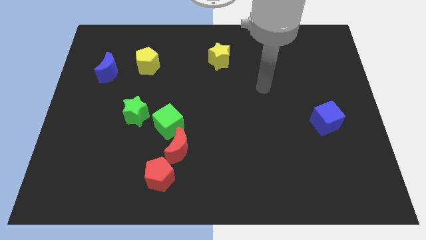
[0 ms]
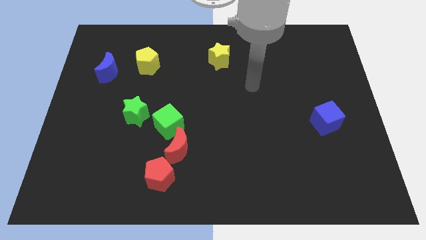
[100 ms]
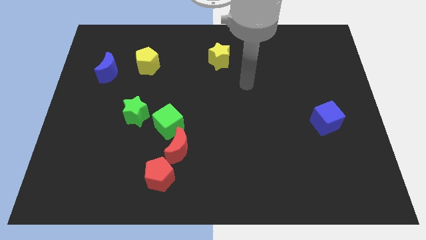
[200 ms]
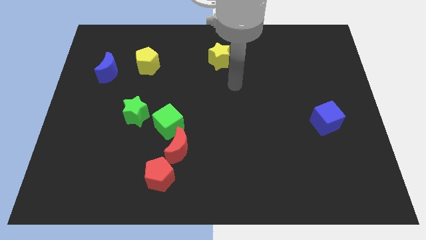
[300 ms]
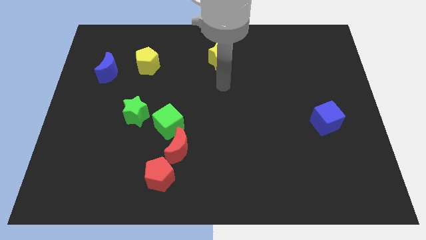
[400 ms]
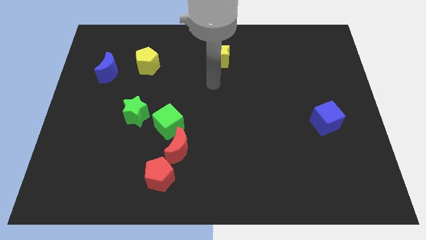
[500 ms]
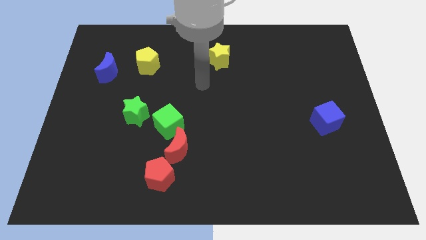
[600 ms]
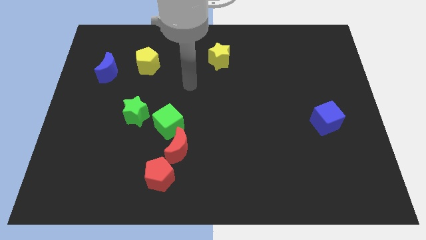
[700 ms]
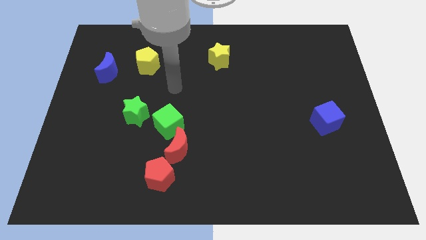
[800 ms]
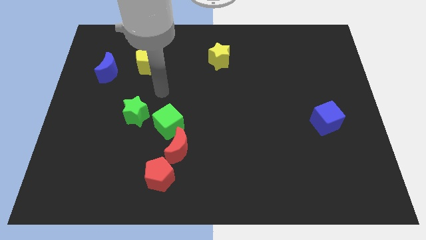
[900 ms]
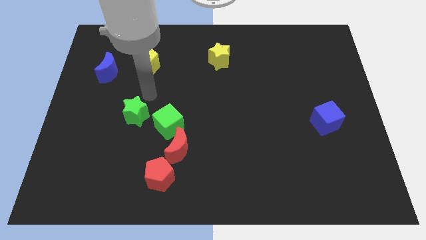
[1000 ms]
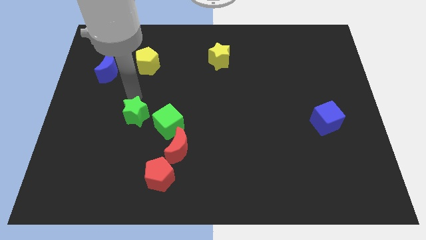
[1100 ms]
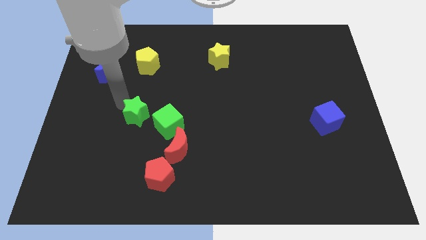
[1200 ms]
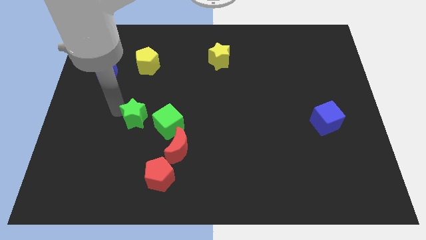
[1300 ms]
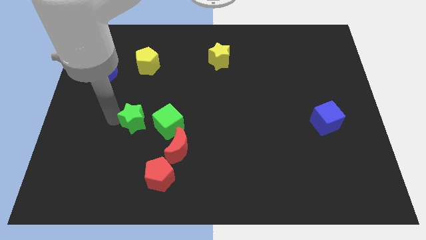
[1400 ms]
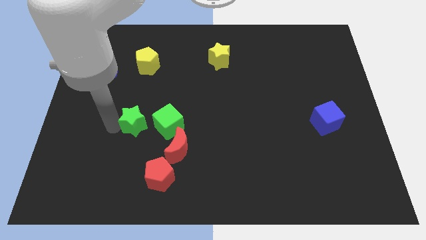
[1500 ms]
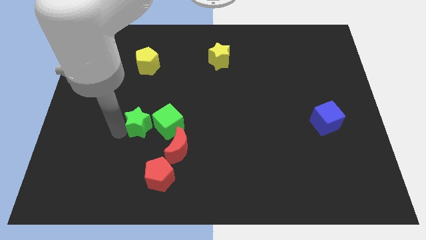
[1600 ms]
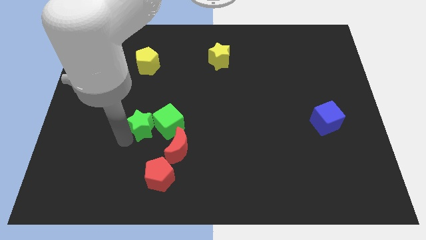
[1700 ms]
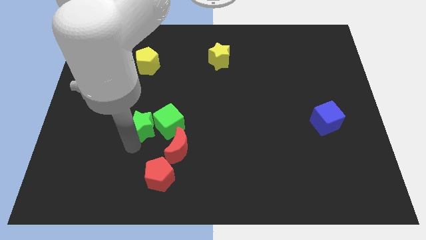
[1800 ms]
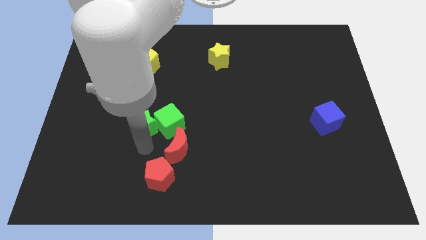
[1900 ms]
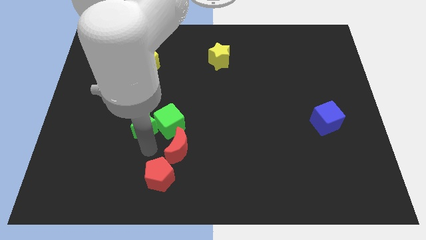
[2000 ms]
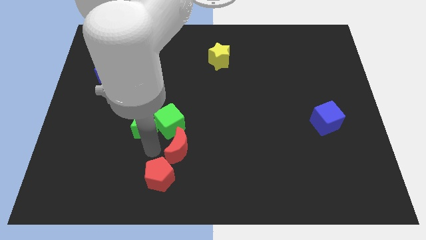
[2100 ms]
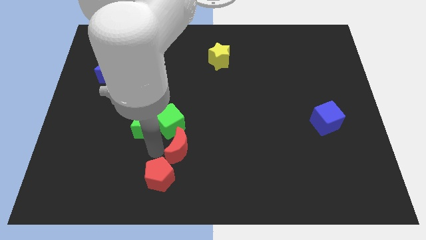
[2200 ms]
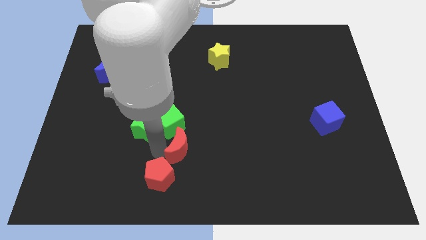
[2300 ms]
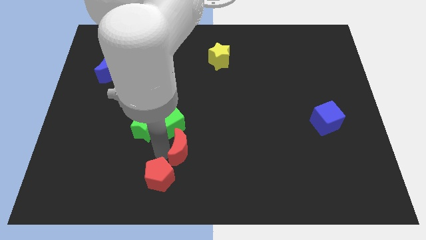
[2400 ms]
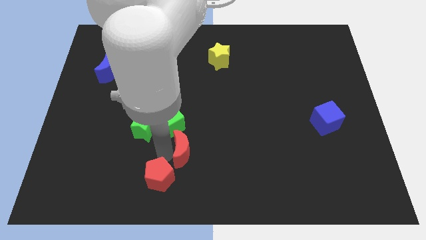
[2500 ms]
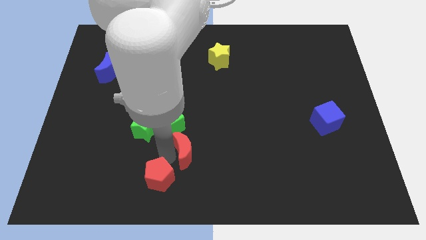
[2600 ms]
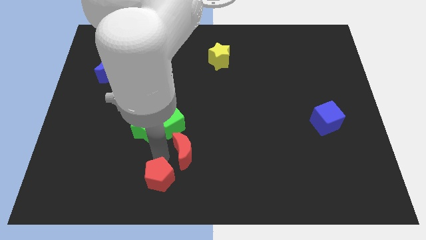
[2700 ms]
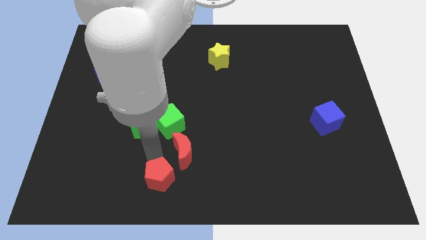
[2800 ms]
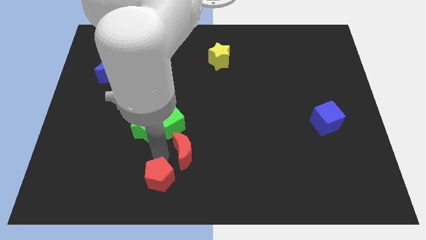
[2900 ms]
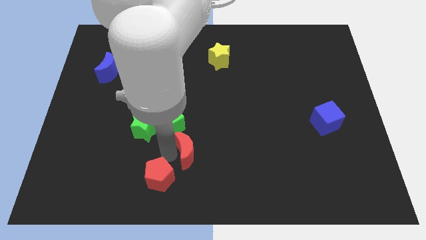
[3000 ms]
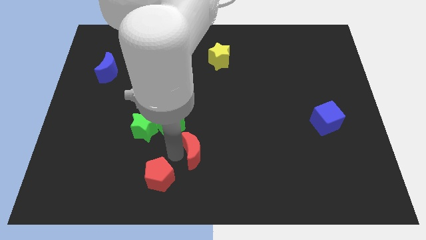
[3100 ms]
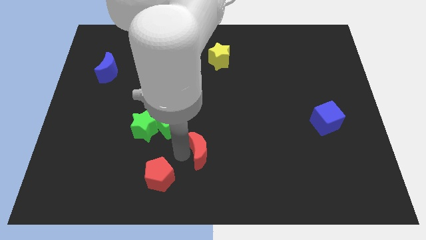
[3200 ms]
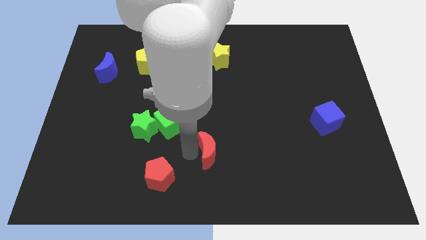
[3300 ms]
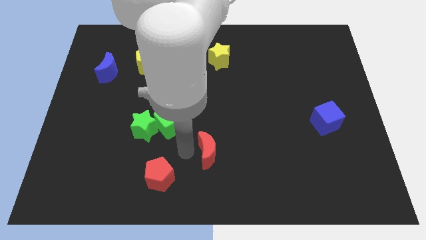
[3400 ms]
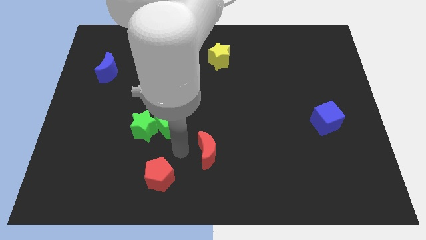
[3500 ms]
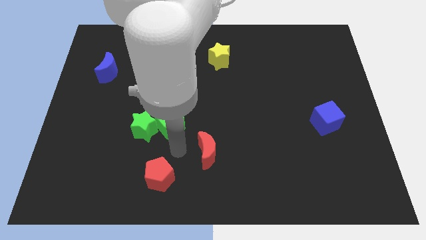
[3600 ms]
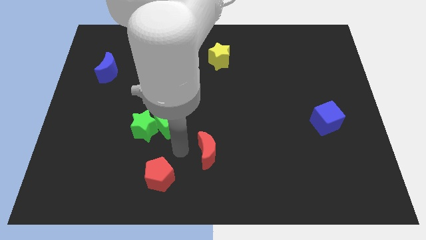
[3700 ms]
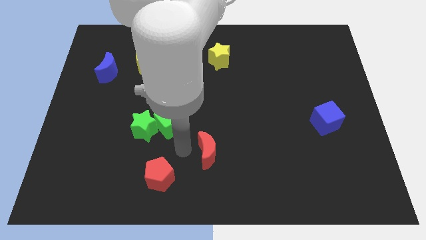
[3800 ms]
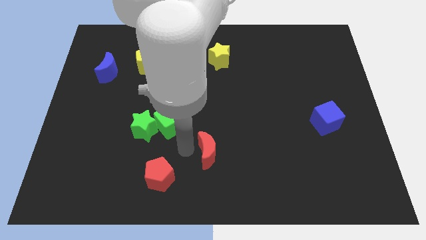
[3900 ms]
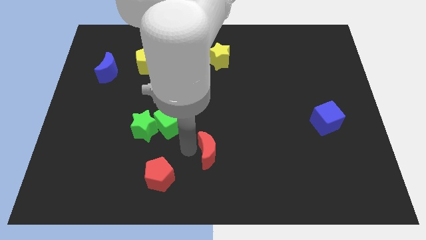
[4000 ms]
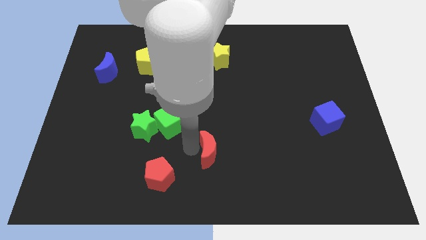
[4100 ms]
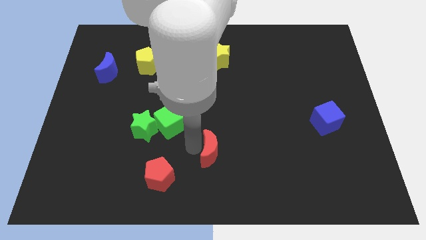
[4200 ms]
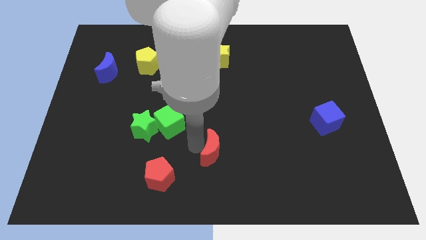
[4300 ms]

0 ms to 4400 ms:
pull the red moon apart from the green cube and red pentagon

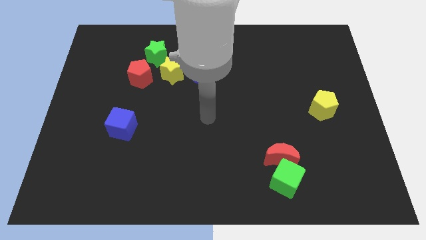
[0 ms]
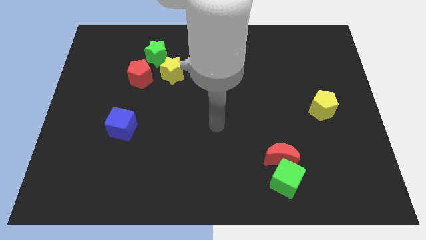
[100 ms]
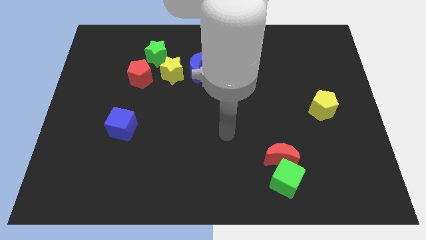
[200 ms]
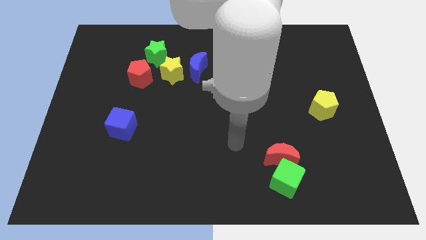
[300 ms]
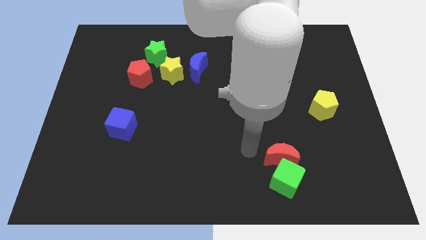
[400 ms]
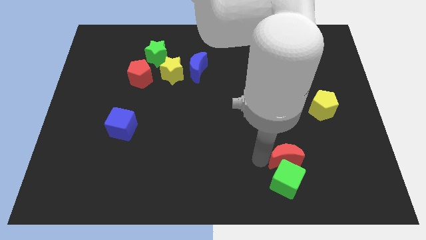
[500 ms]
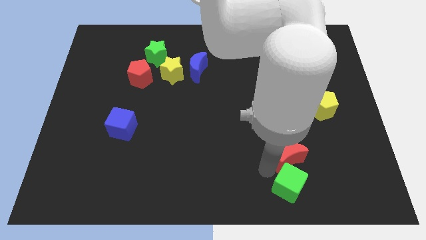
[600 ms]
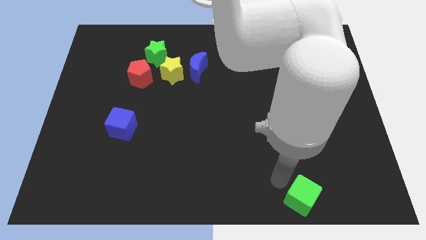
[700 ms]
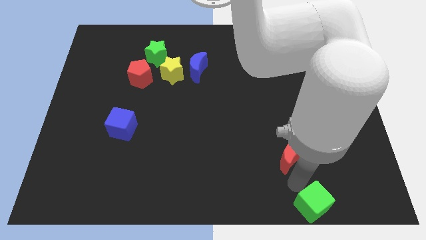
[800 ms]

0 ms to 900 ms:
separate the red moon from the green cube

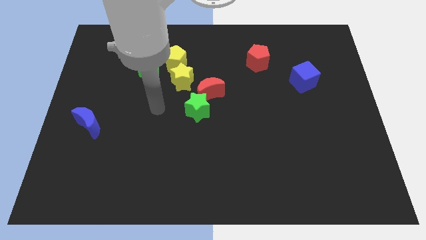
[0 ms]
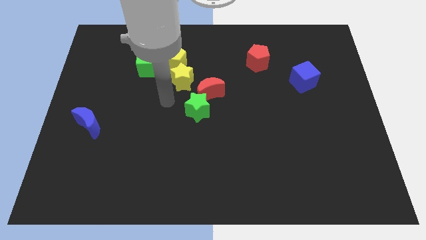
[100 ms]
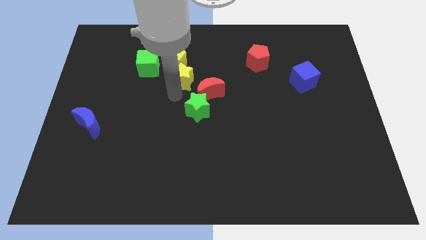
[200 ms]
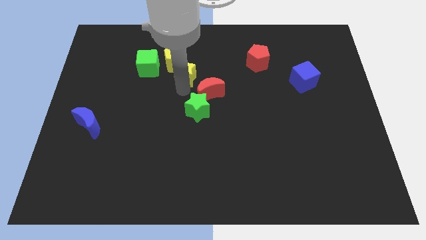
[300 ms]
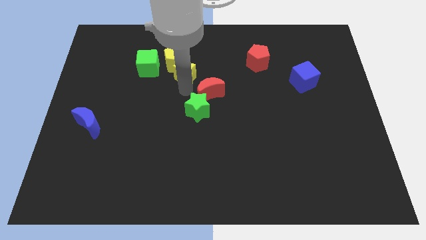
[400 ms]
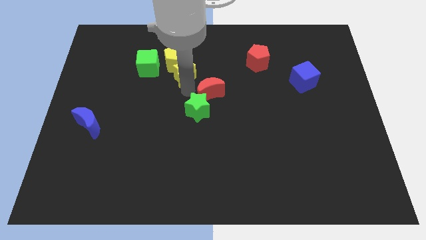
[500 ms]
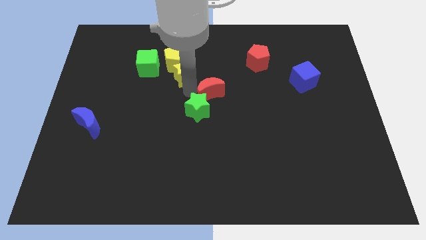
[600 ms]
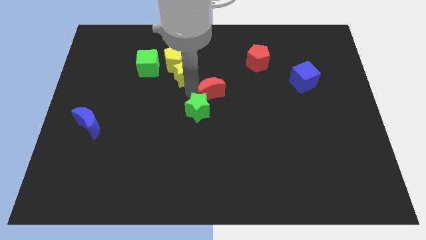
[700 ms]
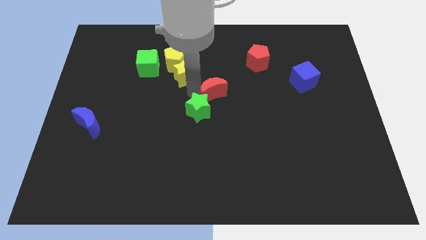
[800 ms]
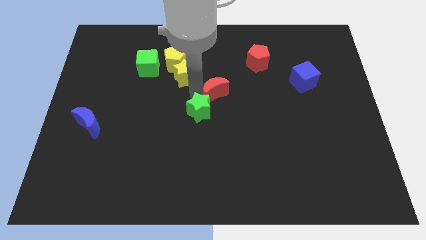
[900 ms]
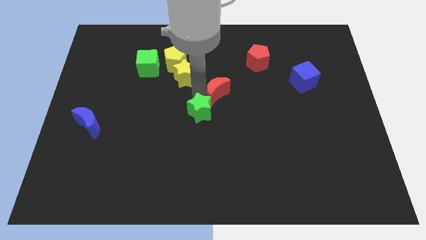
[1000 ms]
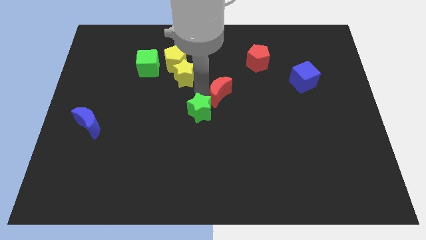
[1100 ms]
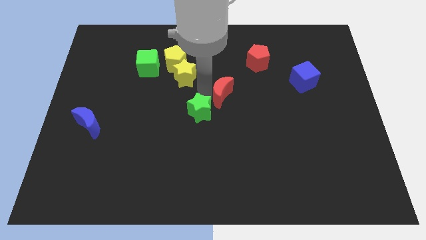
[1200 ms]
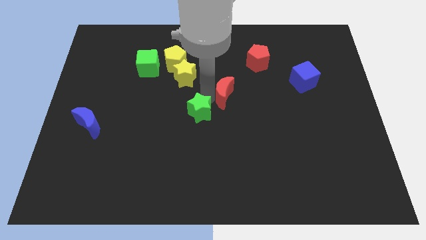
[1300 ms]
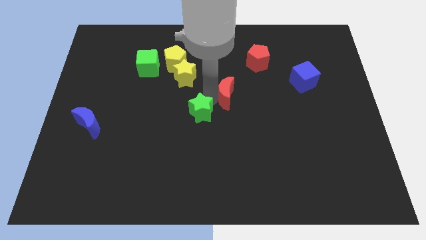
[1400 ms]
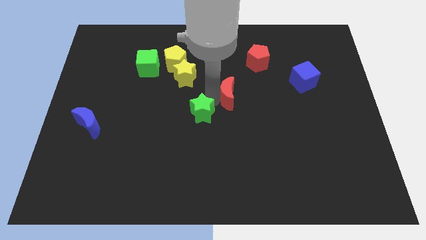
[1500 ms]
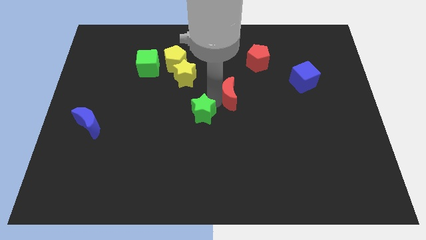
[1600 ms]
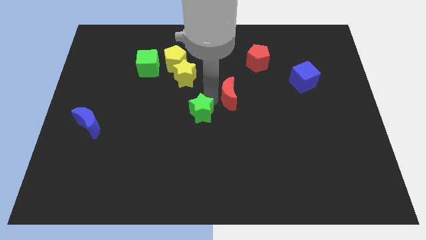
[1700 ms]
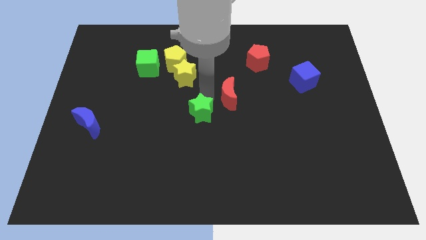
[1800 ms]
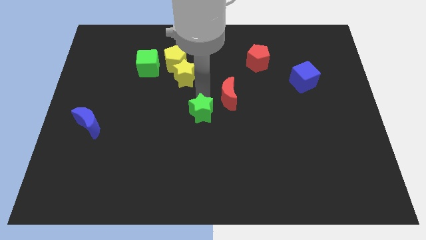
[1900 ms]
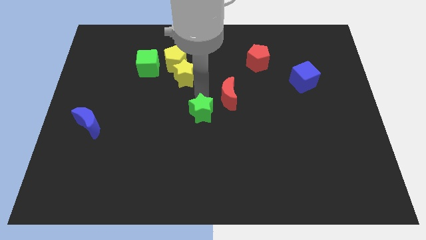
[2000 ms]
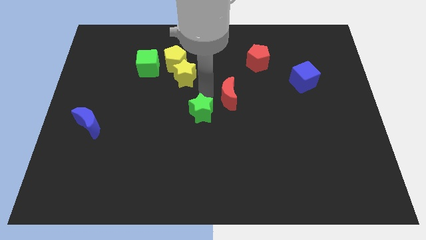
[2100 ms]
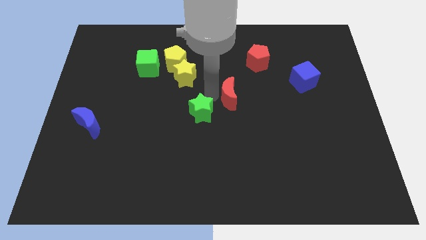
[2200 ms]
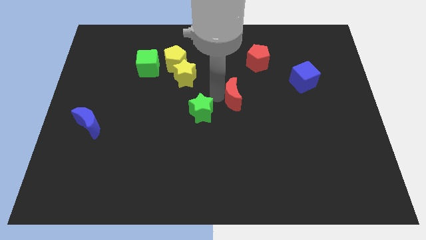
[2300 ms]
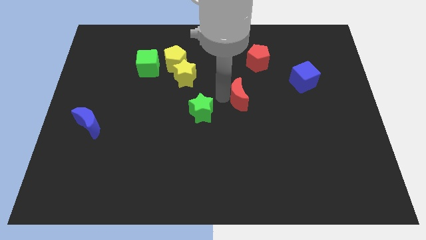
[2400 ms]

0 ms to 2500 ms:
pull the red moon apart from the green star and yellow star

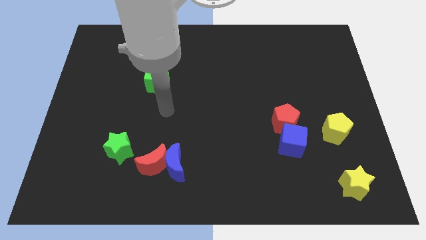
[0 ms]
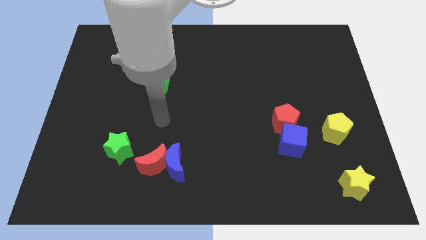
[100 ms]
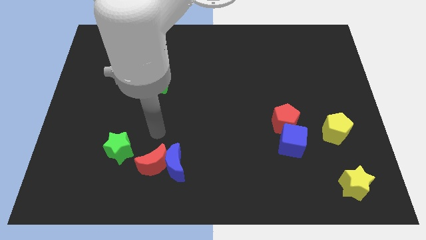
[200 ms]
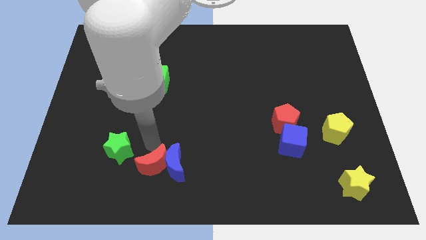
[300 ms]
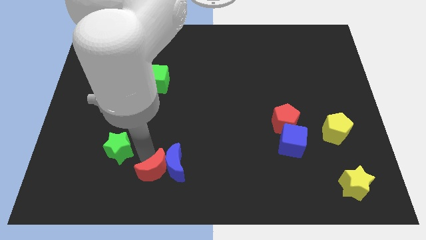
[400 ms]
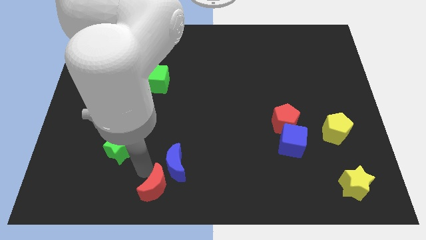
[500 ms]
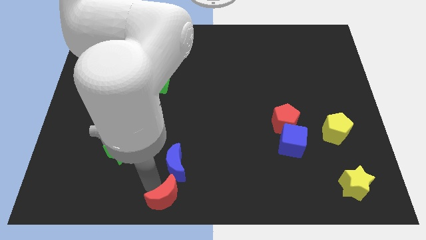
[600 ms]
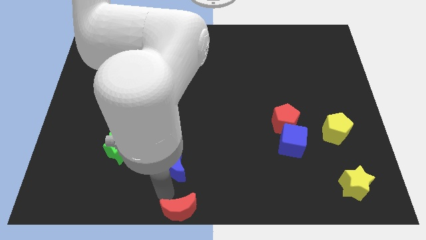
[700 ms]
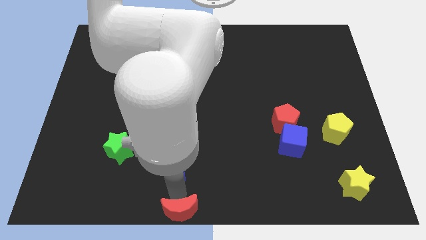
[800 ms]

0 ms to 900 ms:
separate the blue moon from the red moon

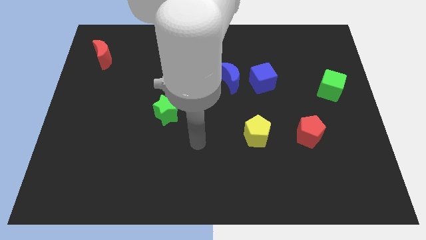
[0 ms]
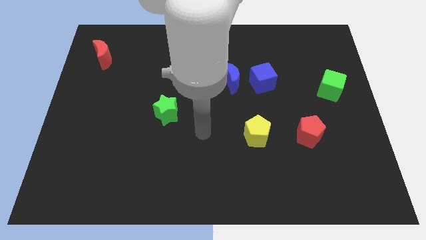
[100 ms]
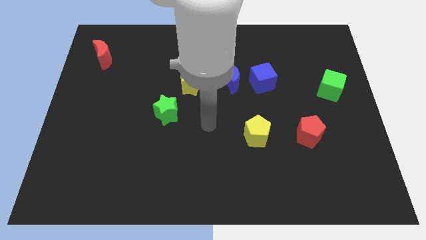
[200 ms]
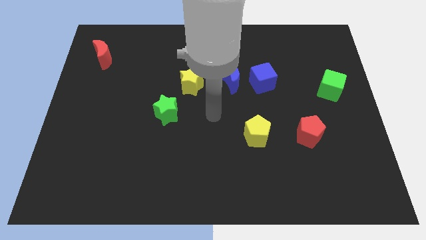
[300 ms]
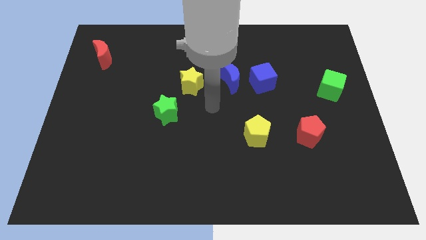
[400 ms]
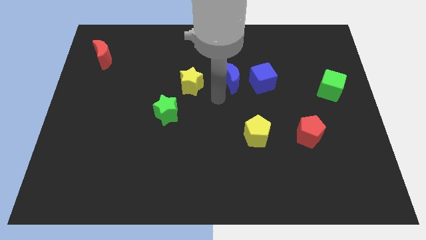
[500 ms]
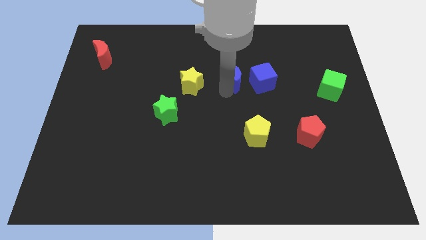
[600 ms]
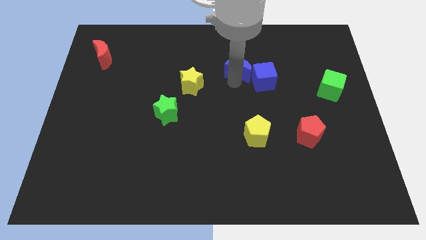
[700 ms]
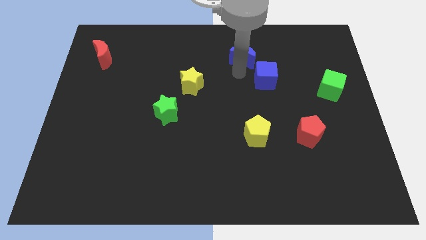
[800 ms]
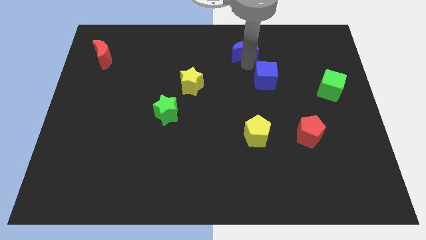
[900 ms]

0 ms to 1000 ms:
move the blue cube away from the blue moon
